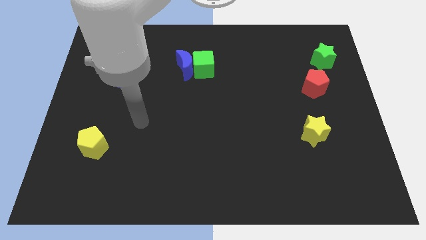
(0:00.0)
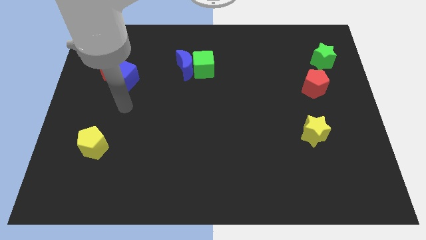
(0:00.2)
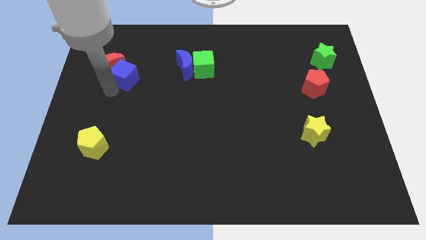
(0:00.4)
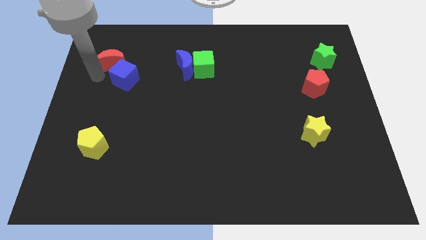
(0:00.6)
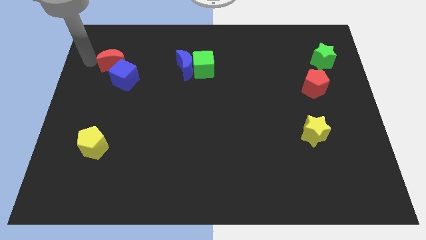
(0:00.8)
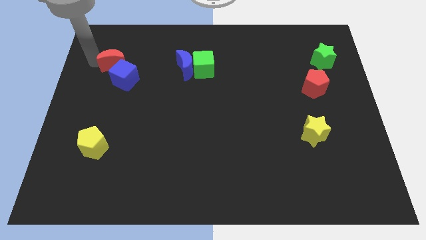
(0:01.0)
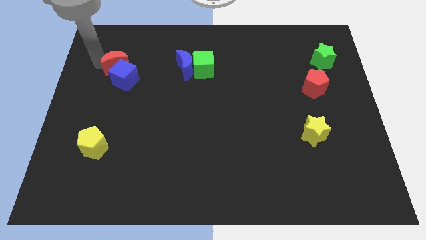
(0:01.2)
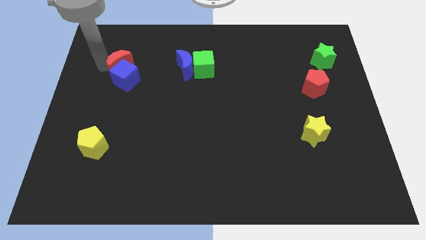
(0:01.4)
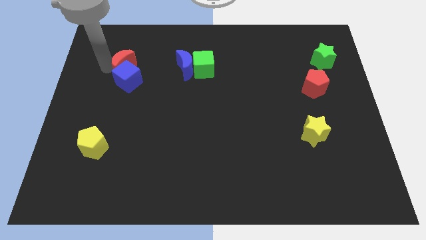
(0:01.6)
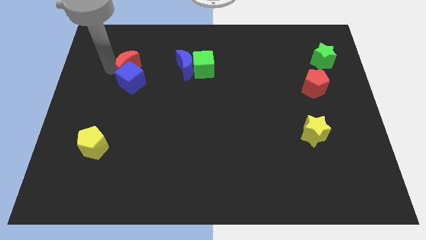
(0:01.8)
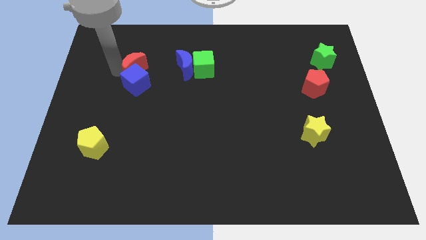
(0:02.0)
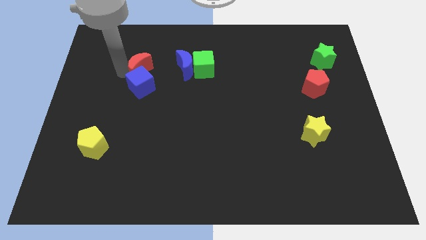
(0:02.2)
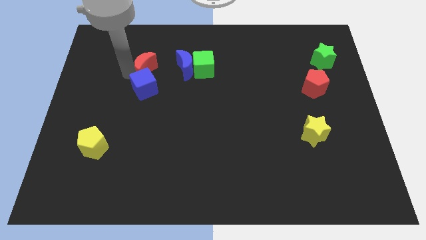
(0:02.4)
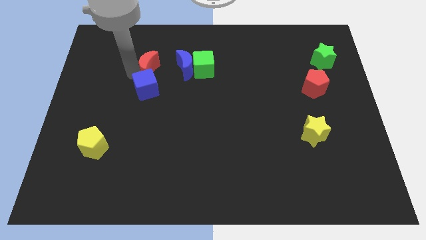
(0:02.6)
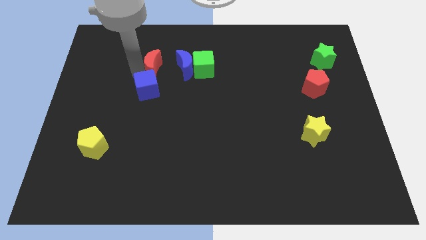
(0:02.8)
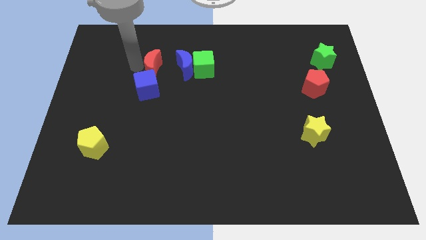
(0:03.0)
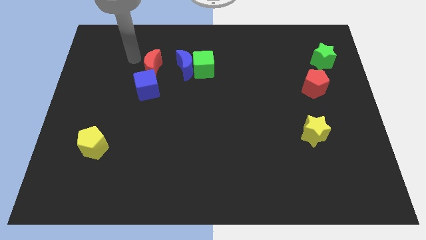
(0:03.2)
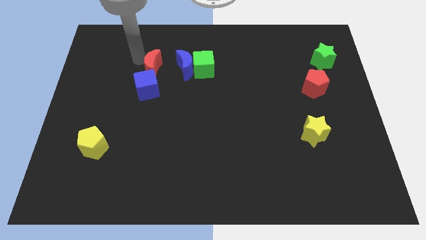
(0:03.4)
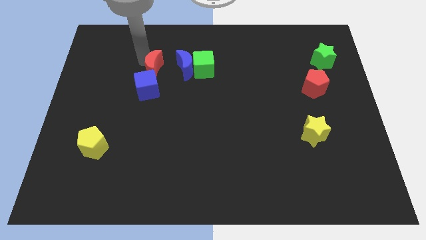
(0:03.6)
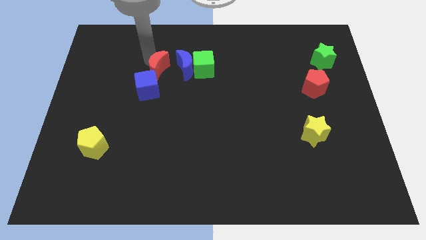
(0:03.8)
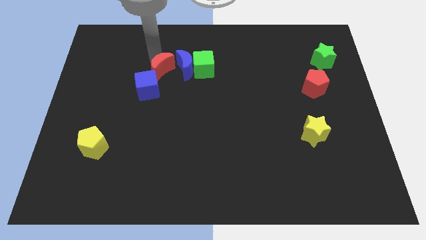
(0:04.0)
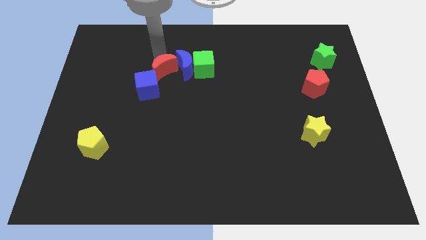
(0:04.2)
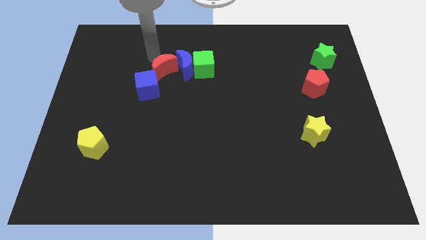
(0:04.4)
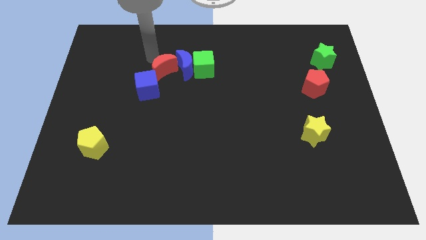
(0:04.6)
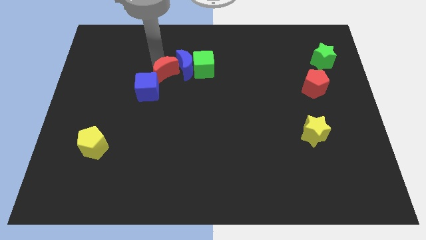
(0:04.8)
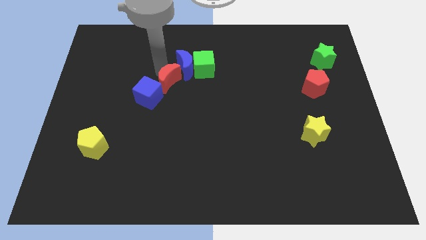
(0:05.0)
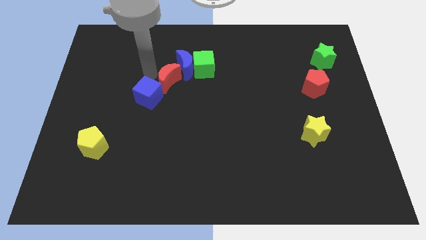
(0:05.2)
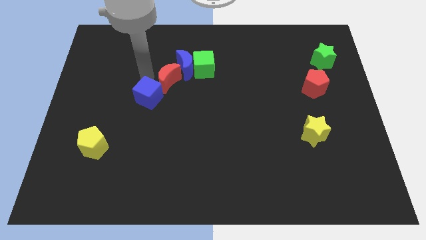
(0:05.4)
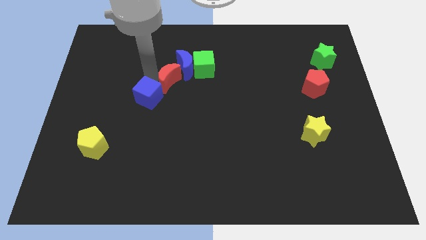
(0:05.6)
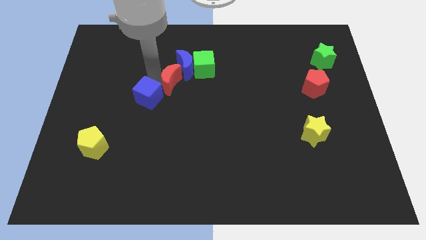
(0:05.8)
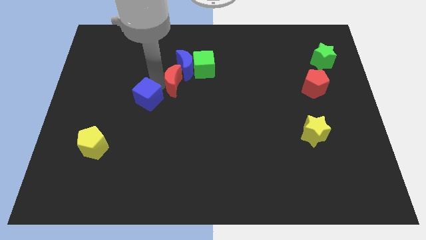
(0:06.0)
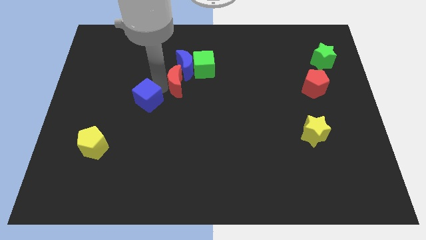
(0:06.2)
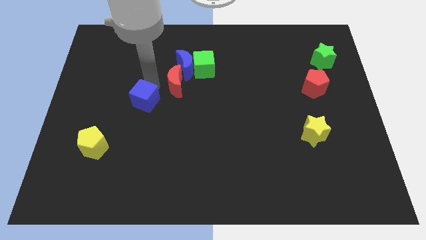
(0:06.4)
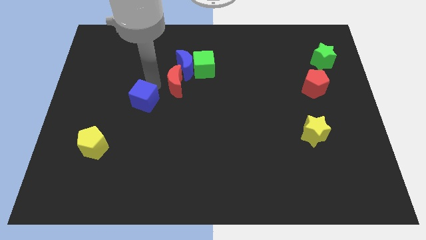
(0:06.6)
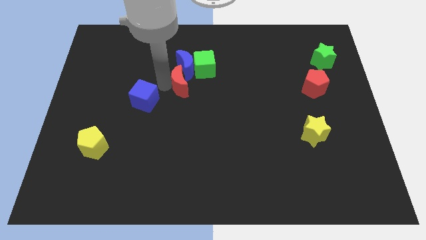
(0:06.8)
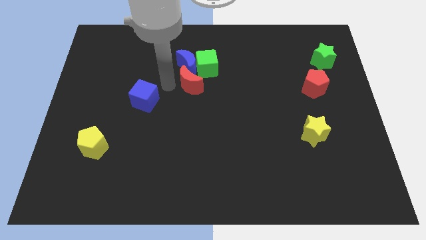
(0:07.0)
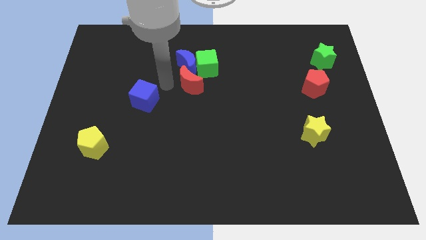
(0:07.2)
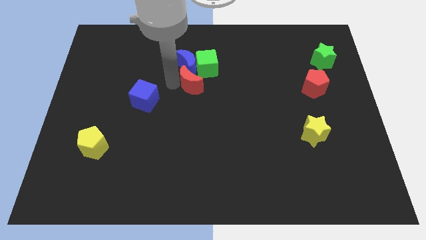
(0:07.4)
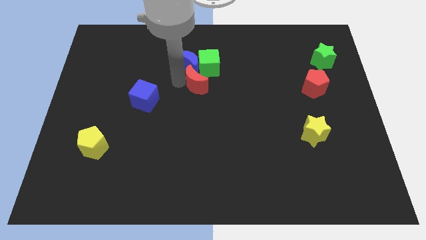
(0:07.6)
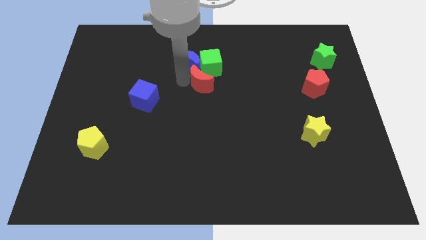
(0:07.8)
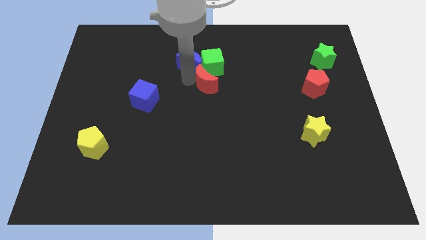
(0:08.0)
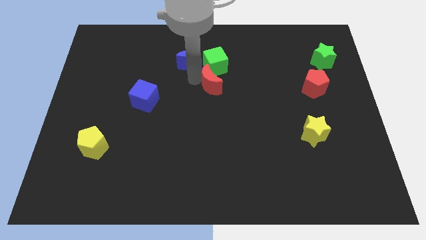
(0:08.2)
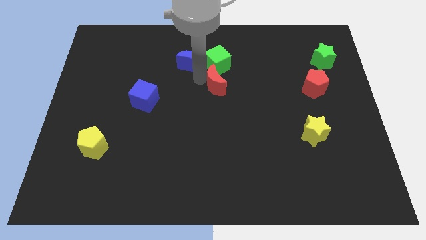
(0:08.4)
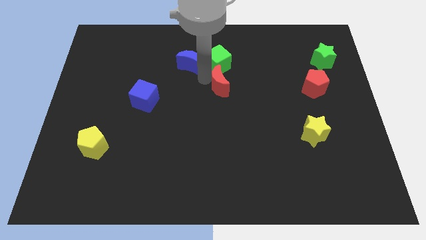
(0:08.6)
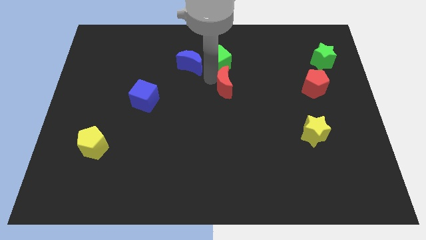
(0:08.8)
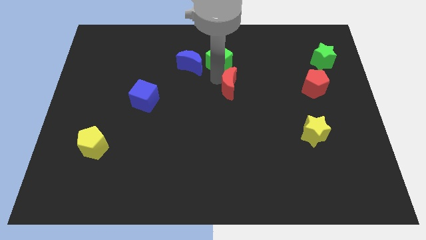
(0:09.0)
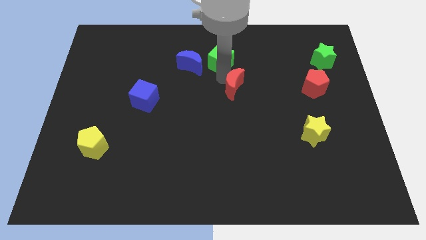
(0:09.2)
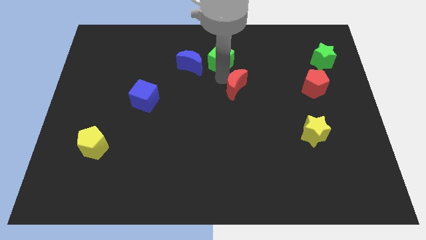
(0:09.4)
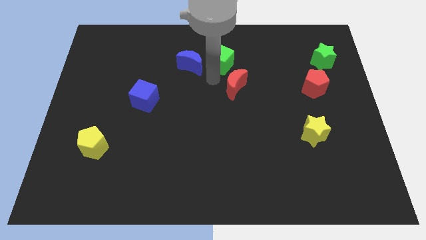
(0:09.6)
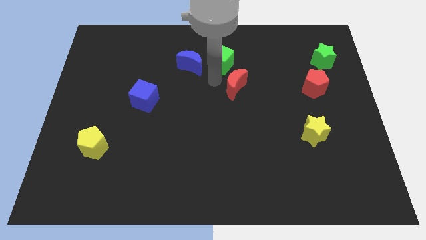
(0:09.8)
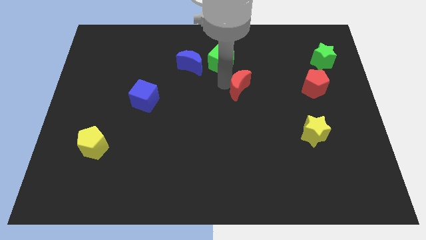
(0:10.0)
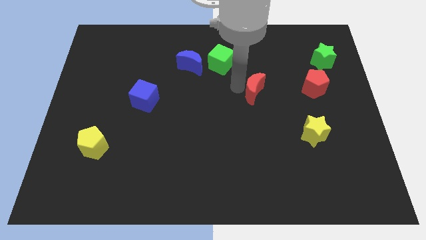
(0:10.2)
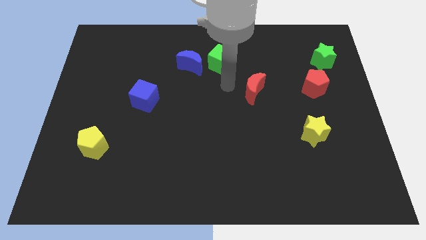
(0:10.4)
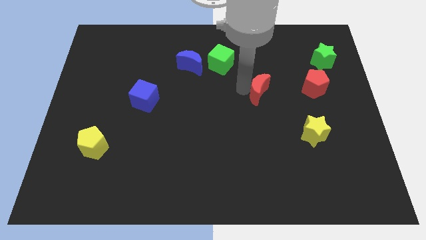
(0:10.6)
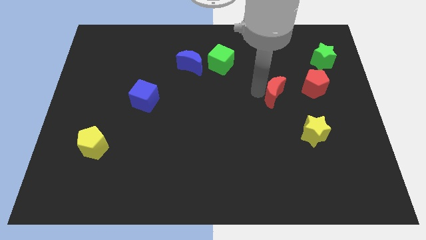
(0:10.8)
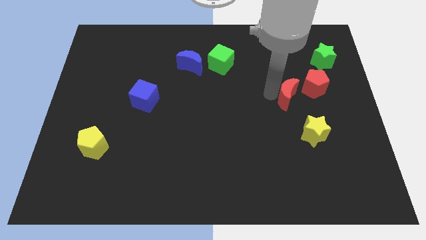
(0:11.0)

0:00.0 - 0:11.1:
slide the red moon to the top side of the yellow star

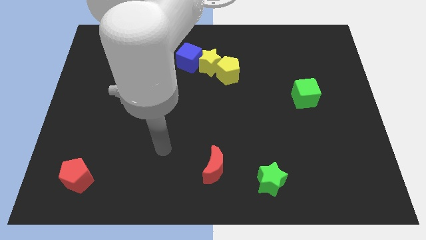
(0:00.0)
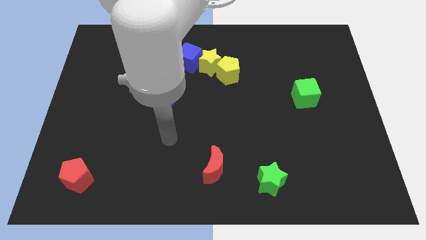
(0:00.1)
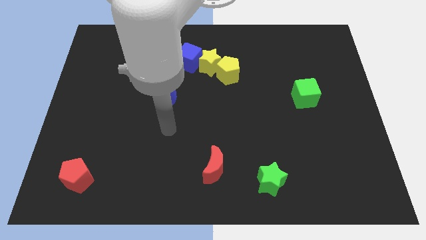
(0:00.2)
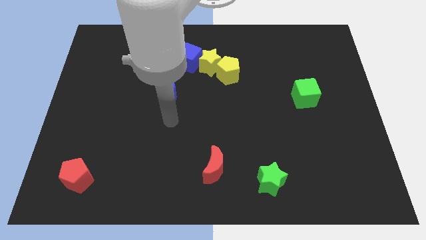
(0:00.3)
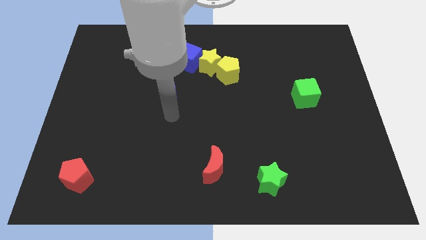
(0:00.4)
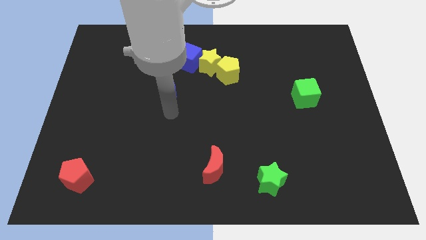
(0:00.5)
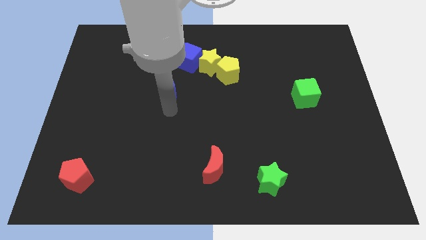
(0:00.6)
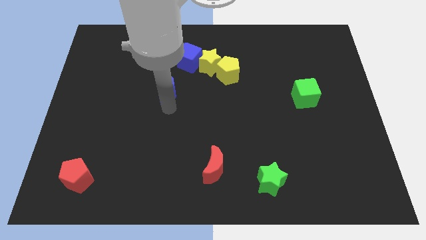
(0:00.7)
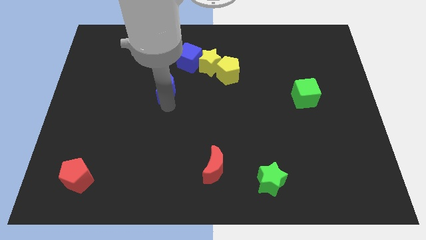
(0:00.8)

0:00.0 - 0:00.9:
push the blue moon diagonally down and to the left of the blue cube
